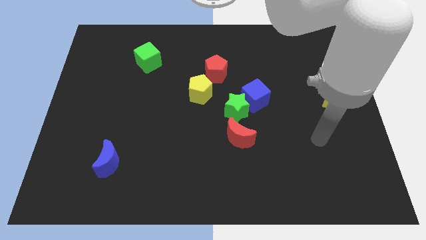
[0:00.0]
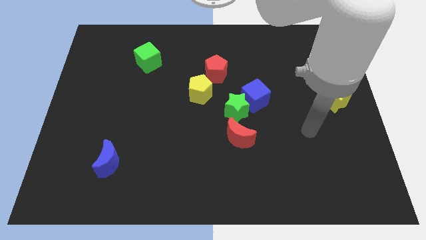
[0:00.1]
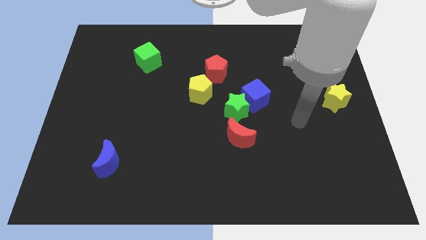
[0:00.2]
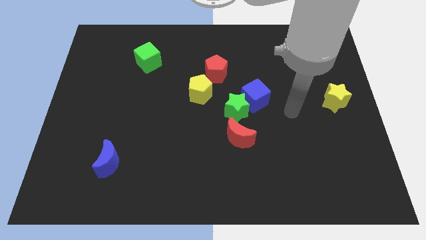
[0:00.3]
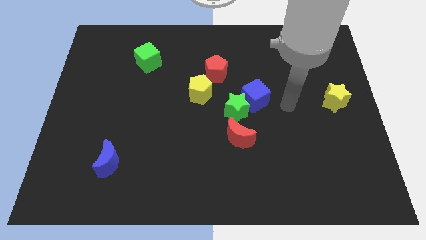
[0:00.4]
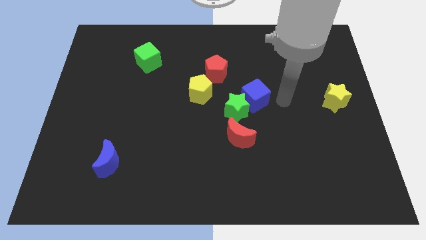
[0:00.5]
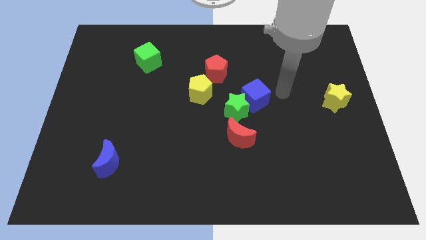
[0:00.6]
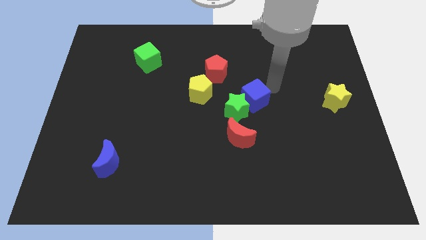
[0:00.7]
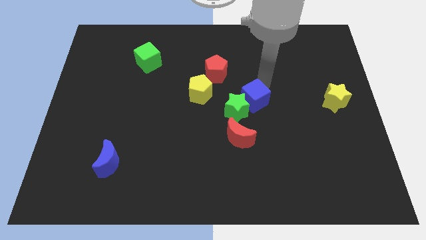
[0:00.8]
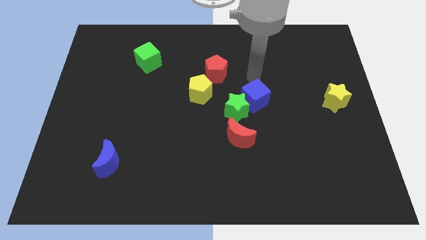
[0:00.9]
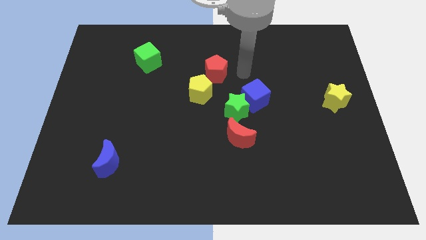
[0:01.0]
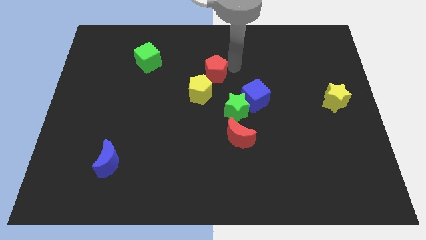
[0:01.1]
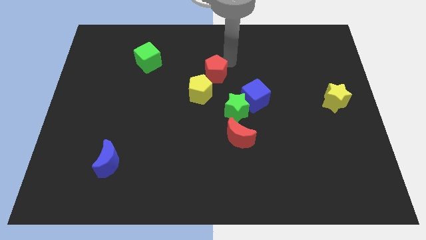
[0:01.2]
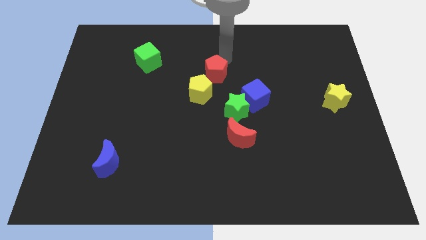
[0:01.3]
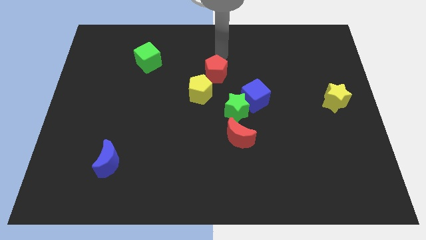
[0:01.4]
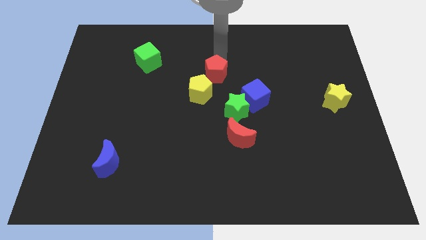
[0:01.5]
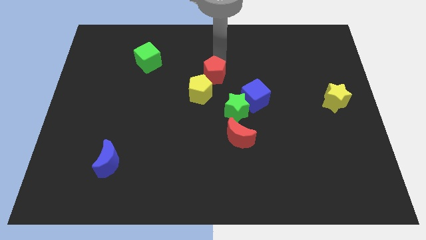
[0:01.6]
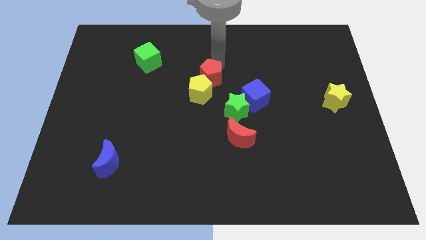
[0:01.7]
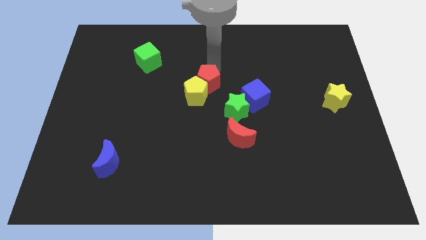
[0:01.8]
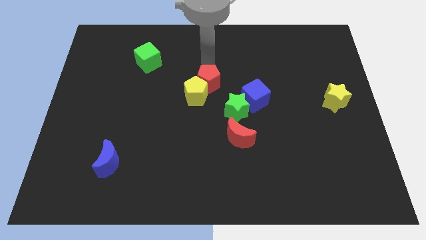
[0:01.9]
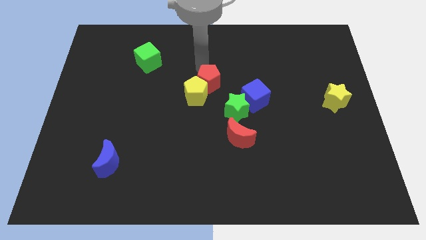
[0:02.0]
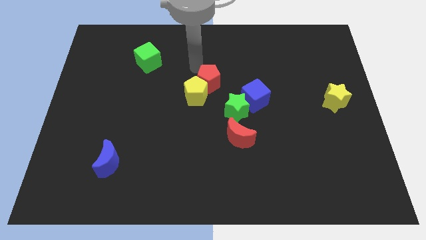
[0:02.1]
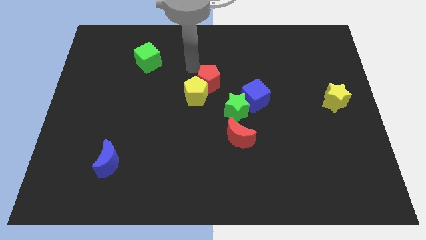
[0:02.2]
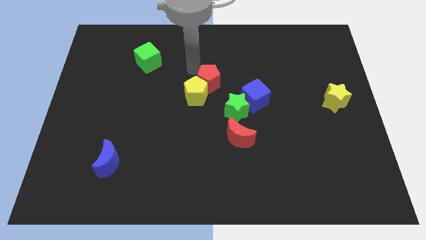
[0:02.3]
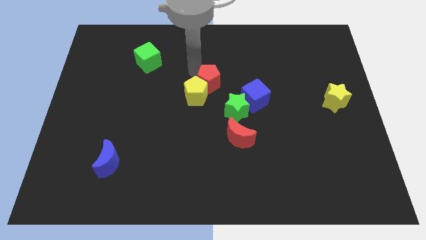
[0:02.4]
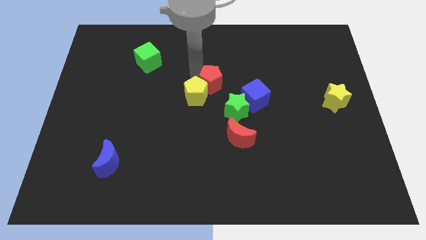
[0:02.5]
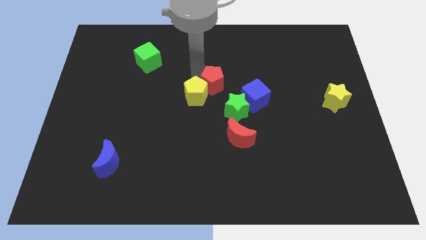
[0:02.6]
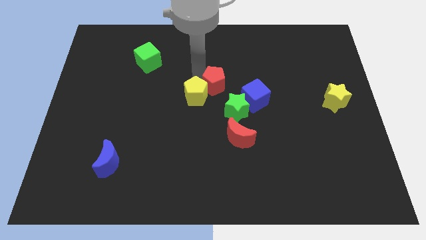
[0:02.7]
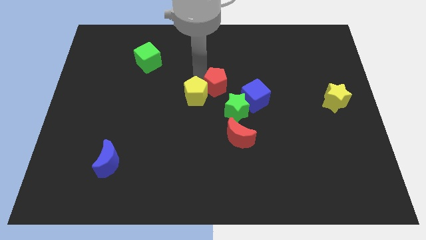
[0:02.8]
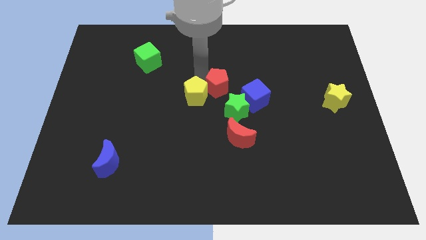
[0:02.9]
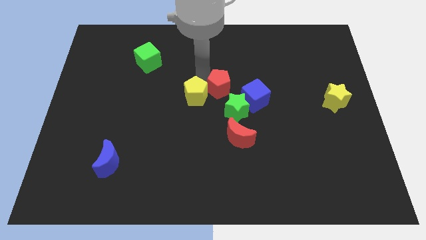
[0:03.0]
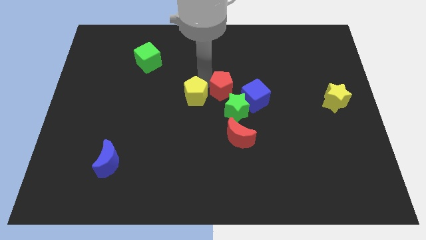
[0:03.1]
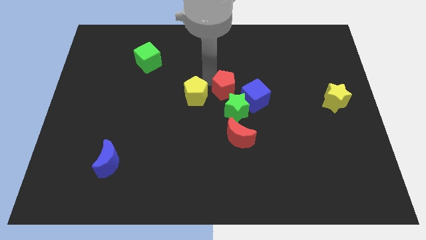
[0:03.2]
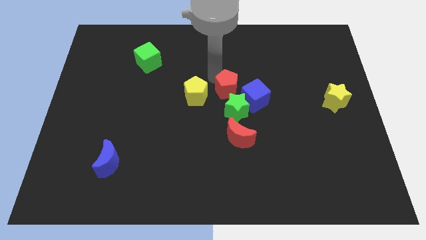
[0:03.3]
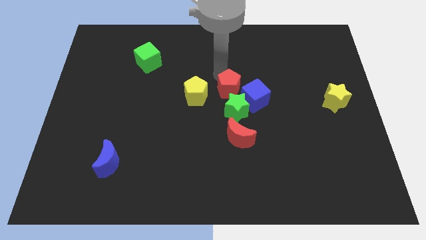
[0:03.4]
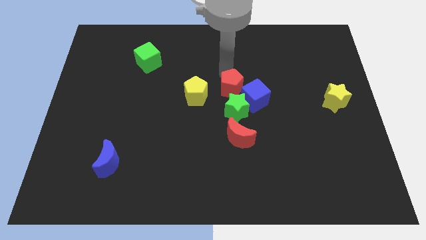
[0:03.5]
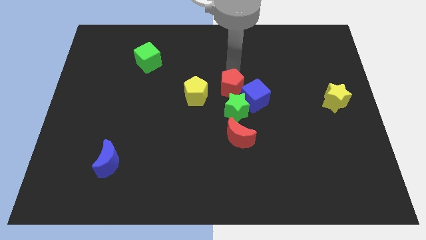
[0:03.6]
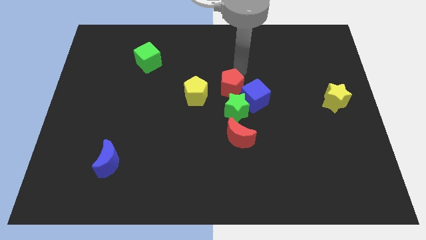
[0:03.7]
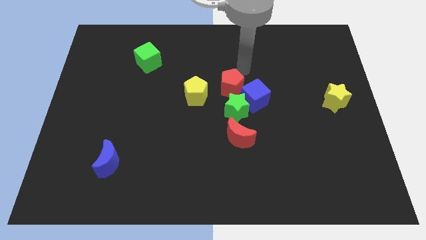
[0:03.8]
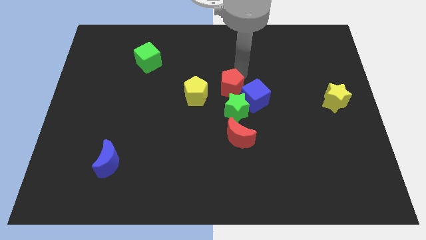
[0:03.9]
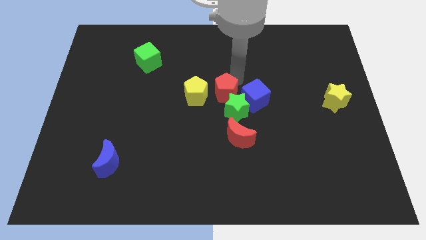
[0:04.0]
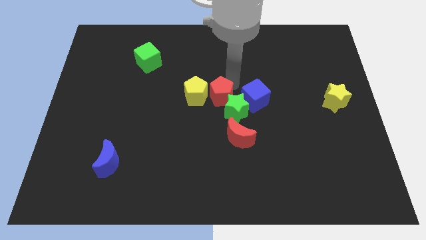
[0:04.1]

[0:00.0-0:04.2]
move the red pentagon a bit down

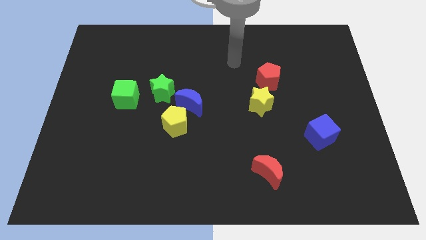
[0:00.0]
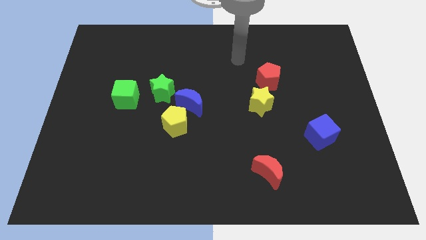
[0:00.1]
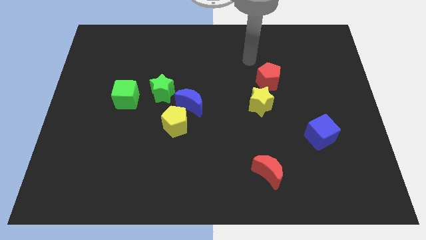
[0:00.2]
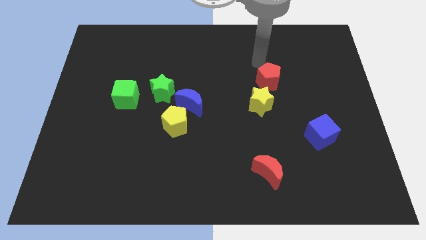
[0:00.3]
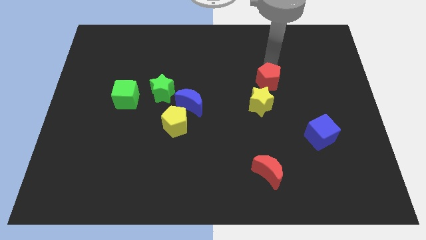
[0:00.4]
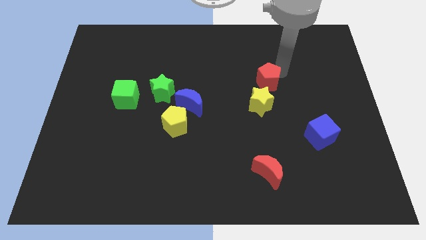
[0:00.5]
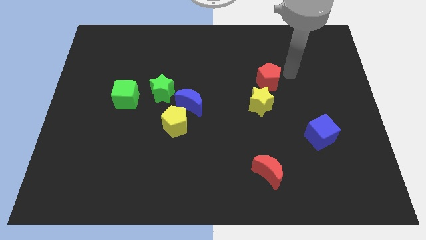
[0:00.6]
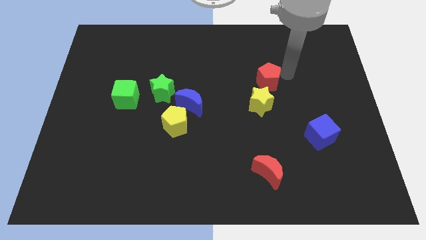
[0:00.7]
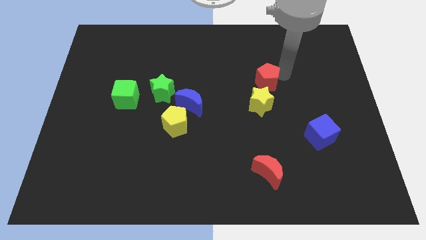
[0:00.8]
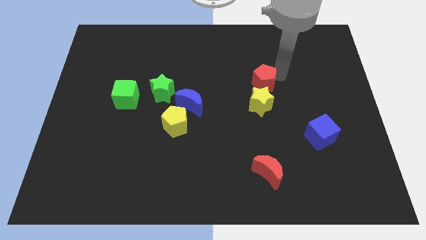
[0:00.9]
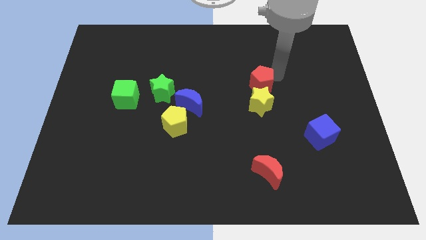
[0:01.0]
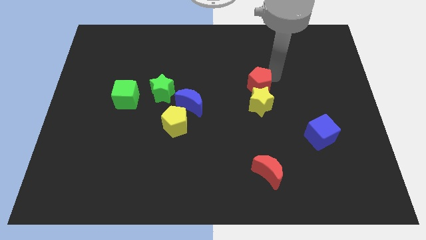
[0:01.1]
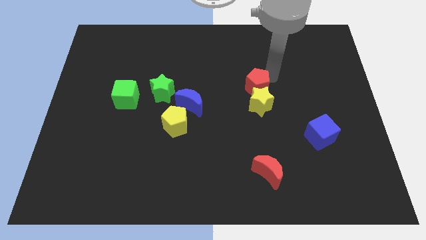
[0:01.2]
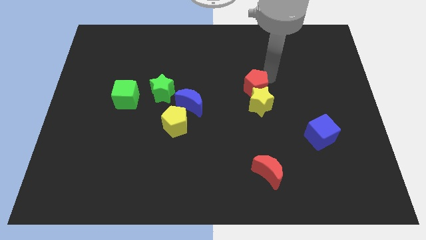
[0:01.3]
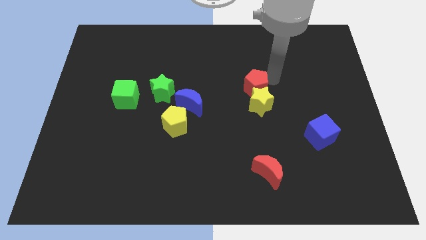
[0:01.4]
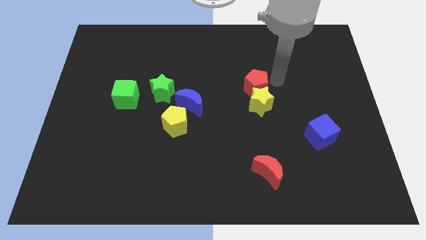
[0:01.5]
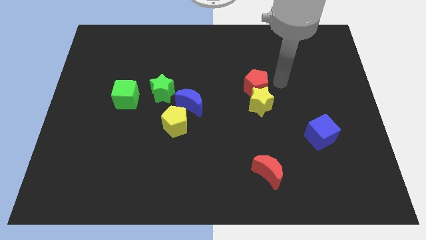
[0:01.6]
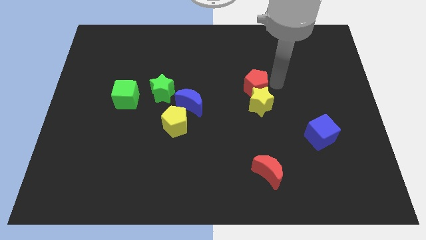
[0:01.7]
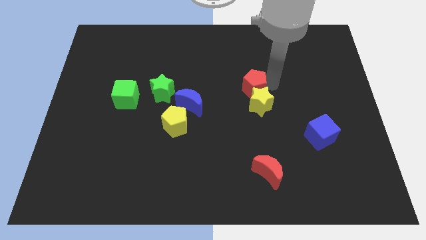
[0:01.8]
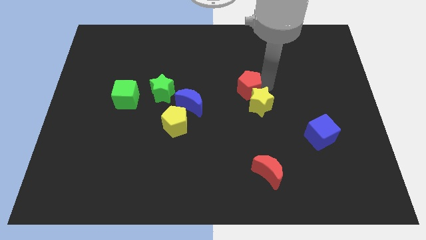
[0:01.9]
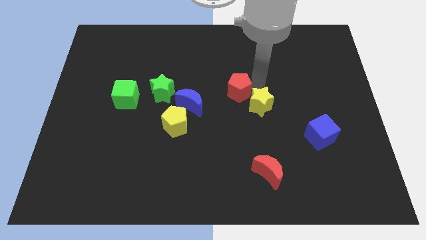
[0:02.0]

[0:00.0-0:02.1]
slide the red pentagon downwards and then to the left somewhat

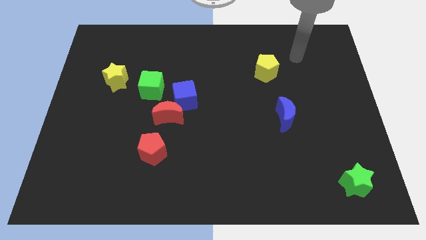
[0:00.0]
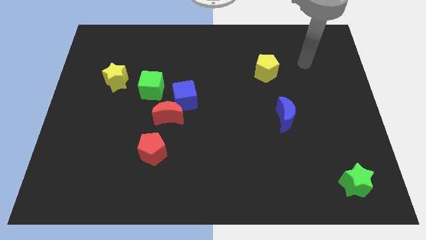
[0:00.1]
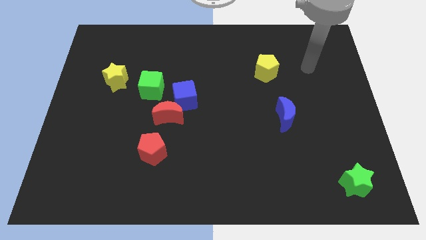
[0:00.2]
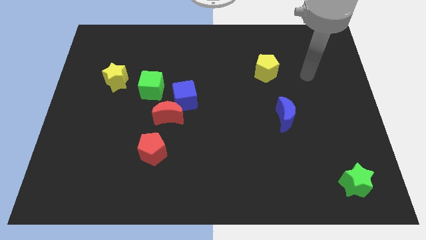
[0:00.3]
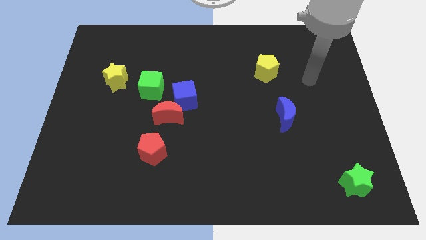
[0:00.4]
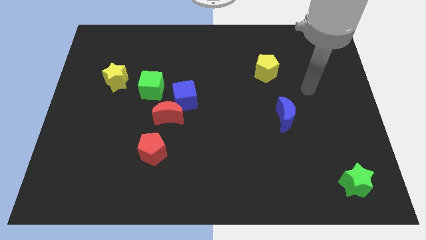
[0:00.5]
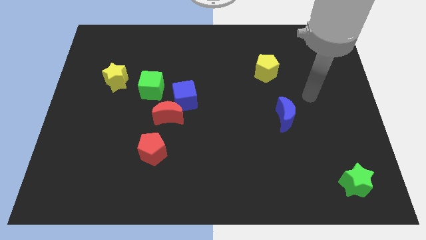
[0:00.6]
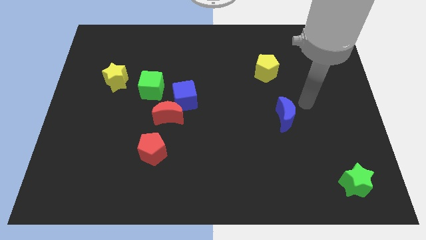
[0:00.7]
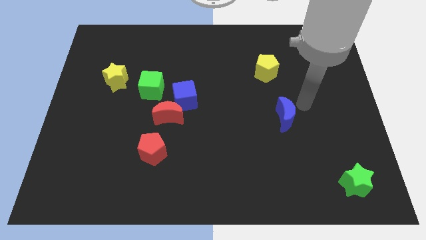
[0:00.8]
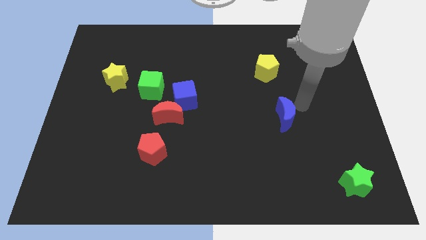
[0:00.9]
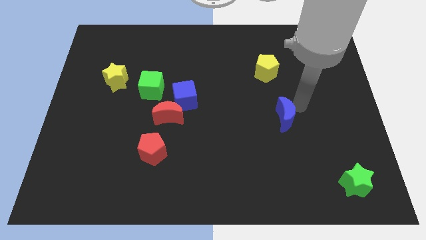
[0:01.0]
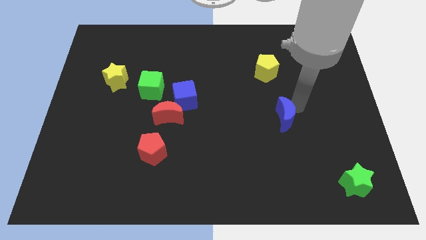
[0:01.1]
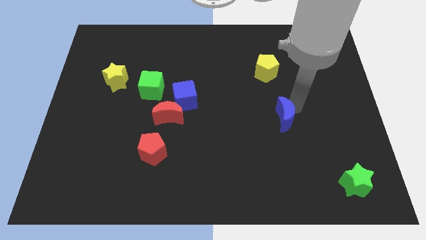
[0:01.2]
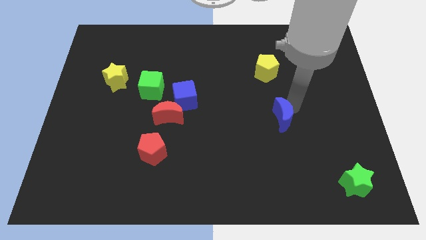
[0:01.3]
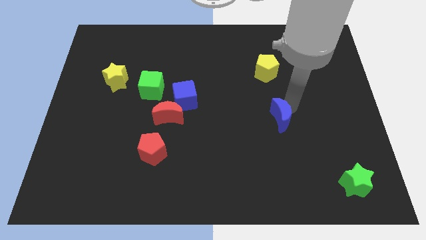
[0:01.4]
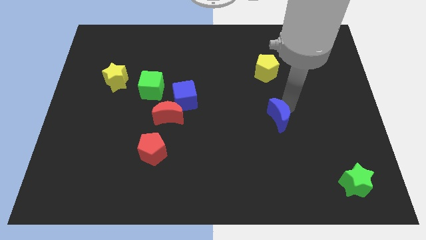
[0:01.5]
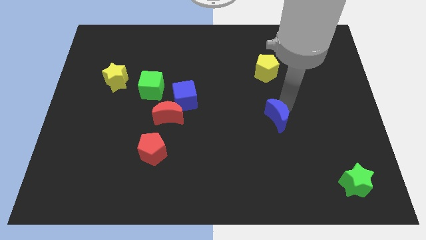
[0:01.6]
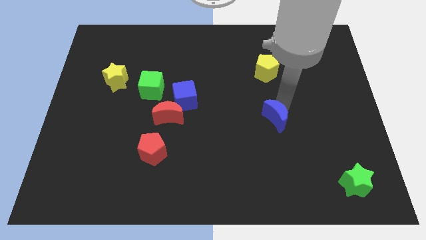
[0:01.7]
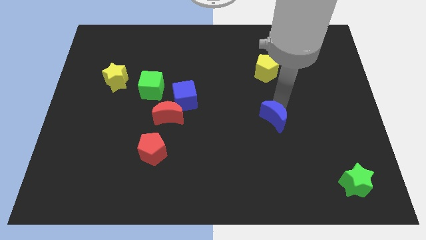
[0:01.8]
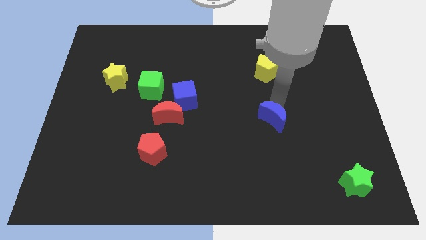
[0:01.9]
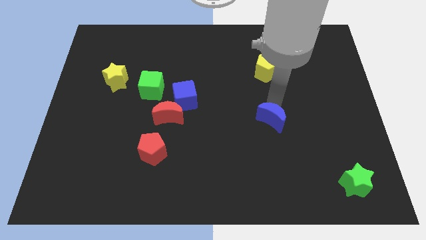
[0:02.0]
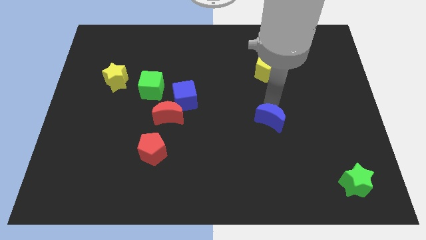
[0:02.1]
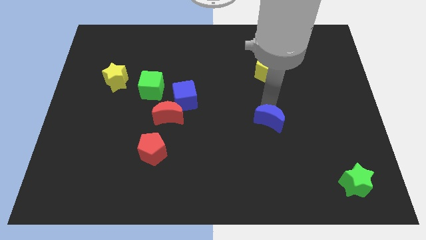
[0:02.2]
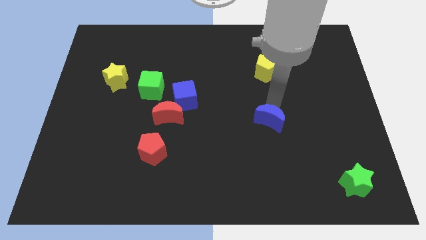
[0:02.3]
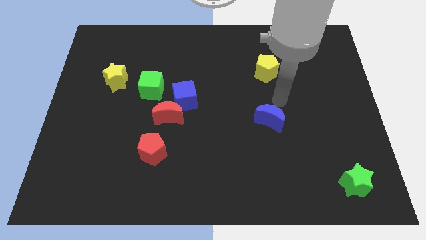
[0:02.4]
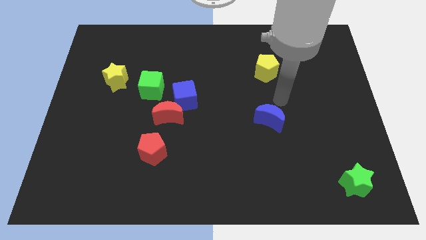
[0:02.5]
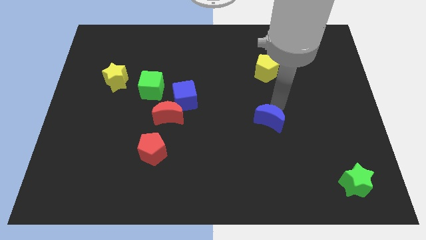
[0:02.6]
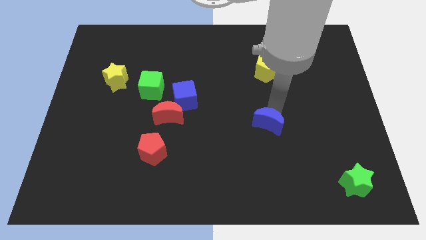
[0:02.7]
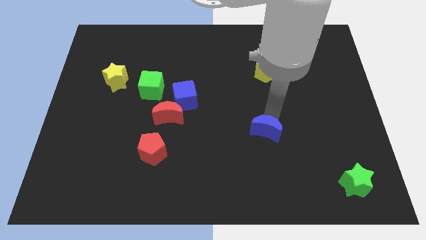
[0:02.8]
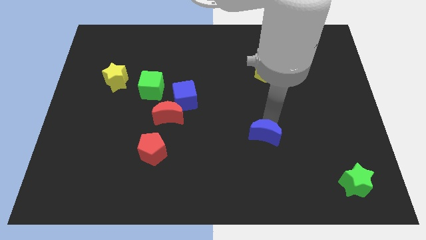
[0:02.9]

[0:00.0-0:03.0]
slightly move the blue moon downwards and to the left
